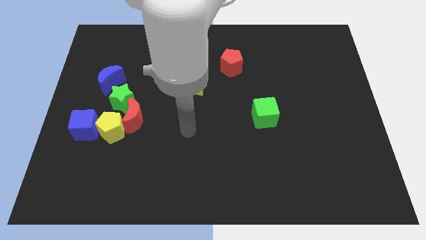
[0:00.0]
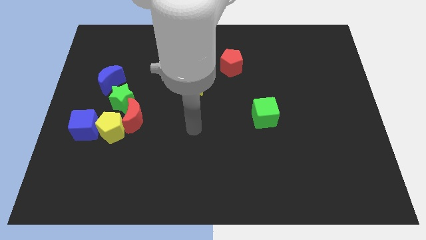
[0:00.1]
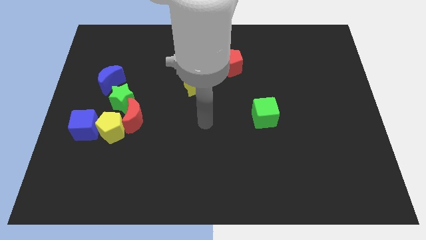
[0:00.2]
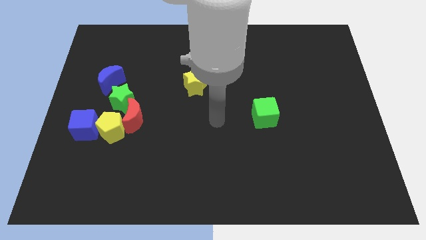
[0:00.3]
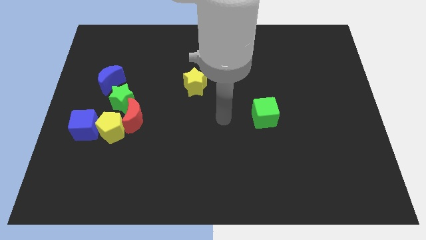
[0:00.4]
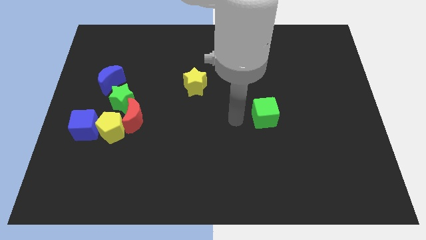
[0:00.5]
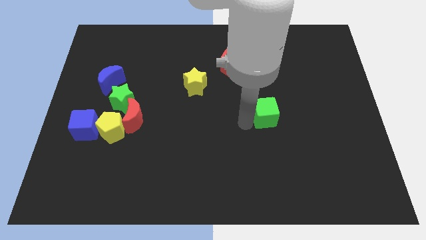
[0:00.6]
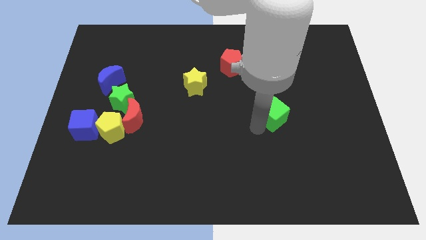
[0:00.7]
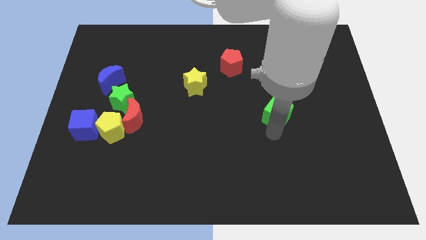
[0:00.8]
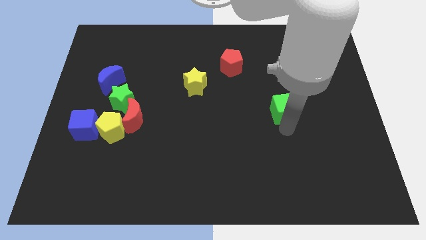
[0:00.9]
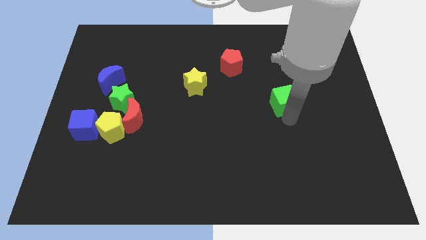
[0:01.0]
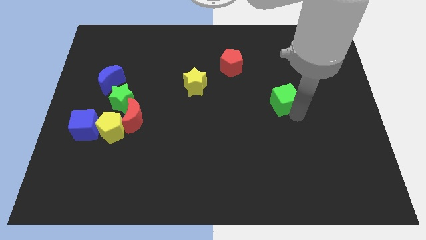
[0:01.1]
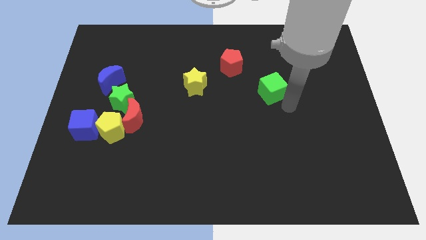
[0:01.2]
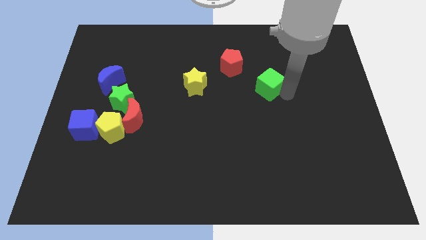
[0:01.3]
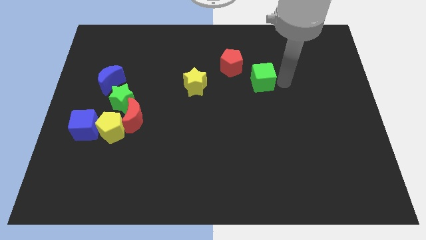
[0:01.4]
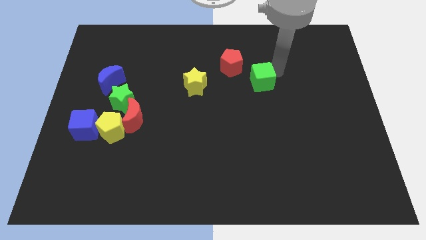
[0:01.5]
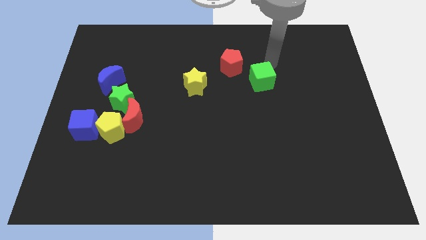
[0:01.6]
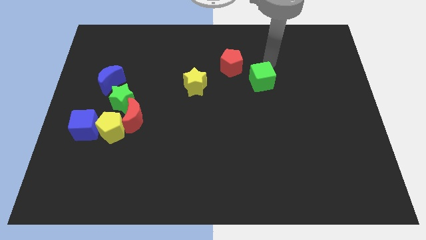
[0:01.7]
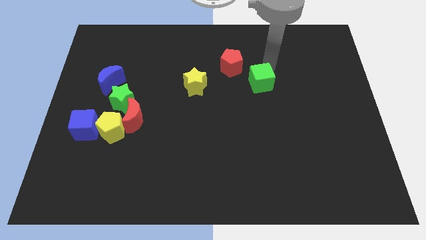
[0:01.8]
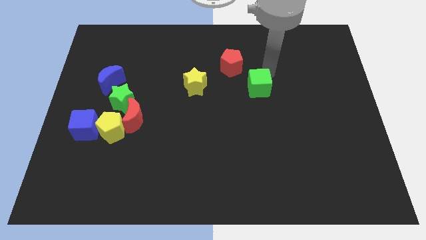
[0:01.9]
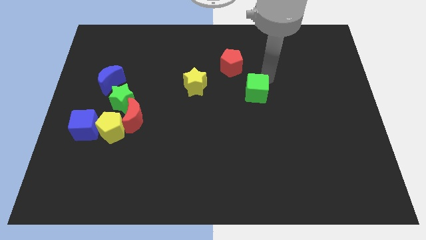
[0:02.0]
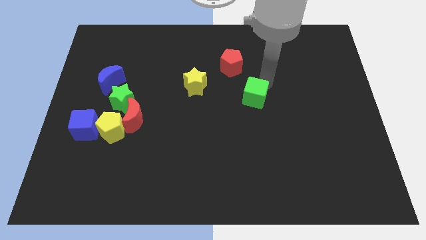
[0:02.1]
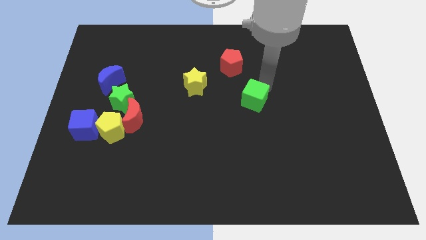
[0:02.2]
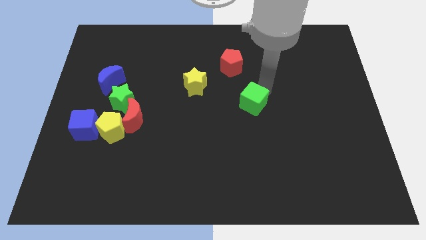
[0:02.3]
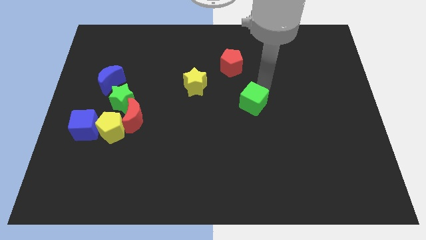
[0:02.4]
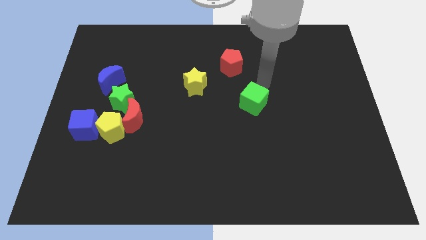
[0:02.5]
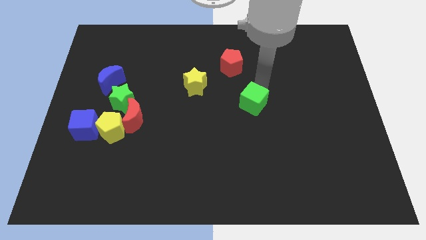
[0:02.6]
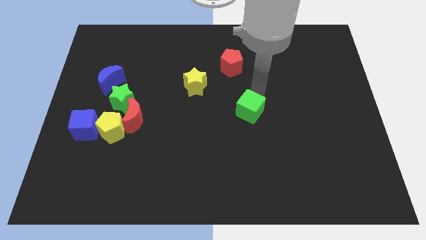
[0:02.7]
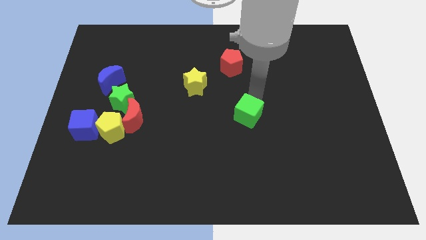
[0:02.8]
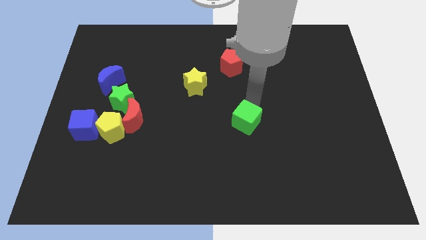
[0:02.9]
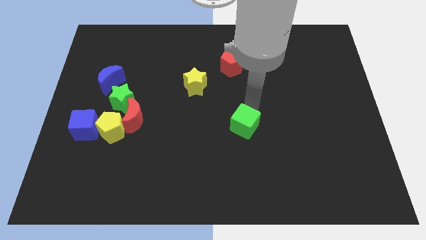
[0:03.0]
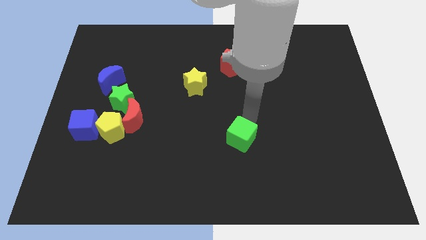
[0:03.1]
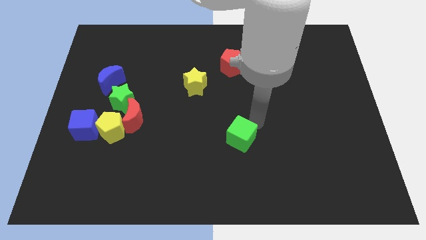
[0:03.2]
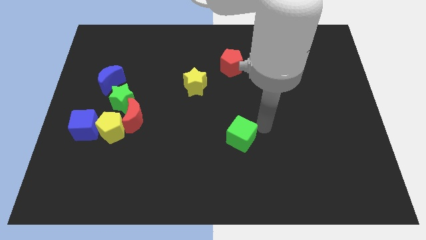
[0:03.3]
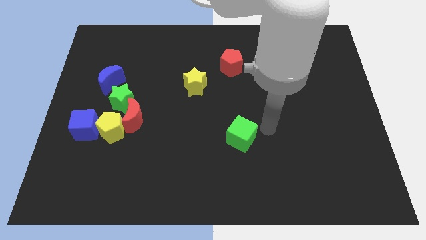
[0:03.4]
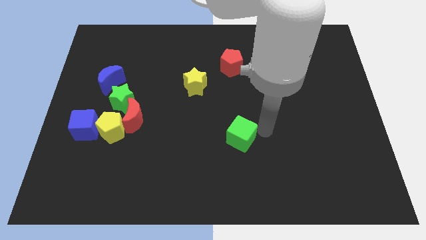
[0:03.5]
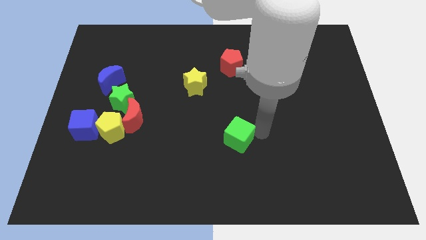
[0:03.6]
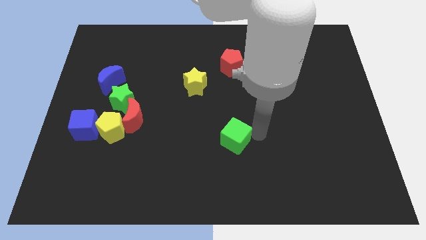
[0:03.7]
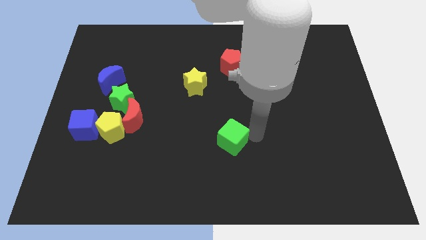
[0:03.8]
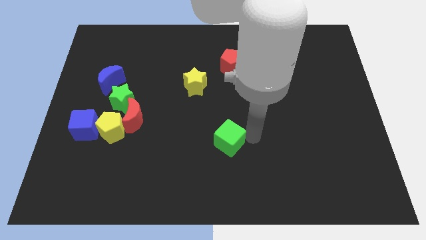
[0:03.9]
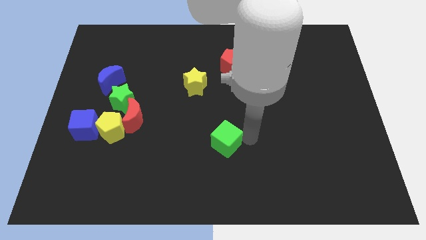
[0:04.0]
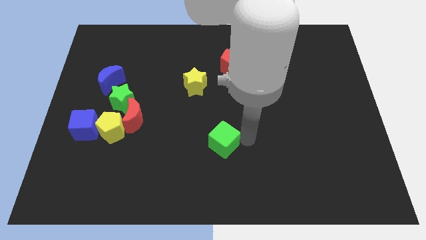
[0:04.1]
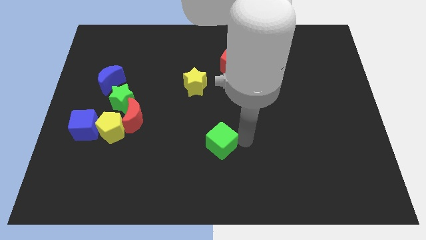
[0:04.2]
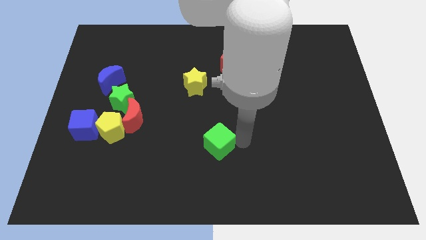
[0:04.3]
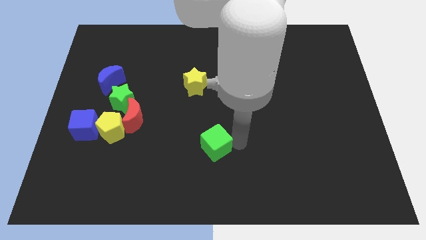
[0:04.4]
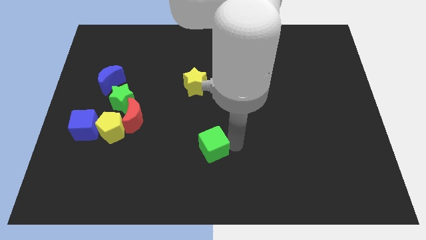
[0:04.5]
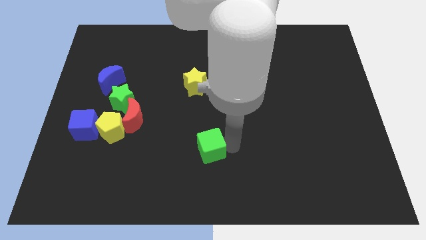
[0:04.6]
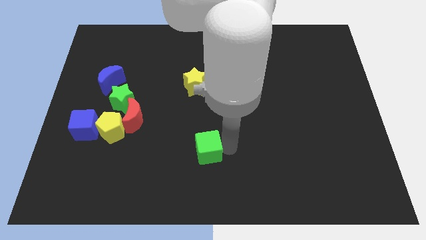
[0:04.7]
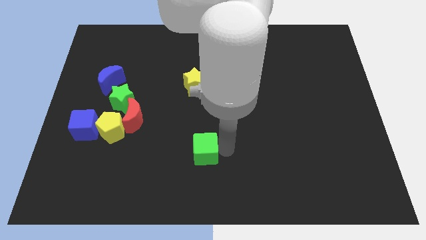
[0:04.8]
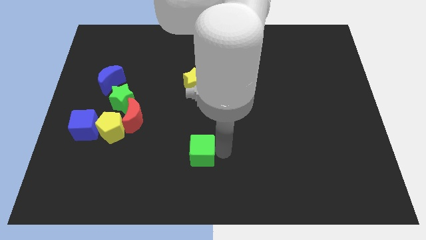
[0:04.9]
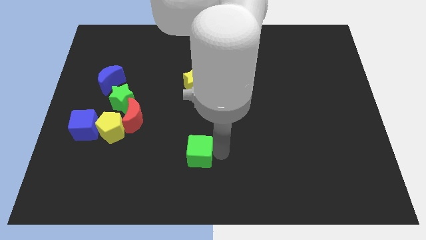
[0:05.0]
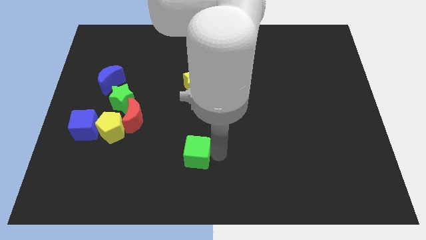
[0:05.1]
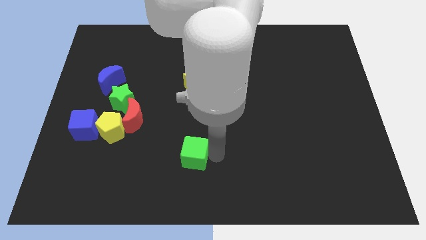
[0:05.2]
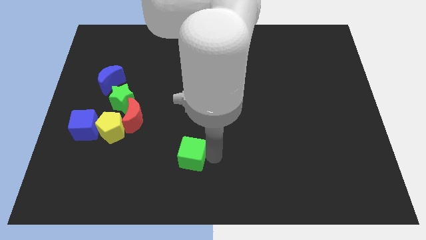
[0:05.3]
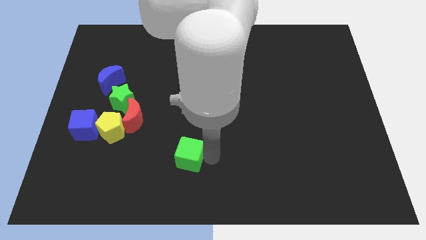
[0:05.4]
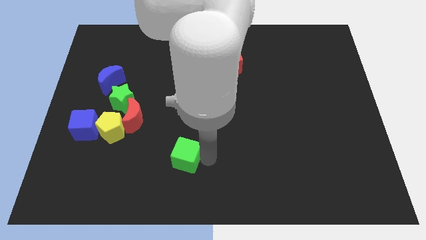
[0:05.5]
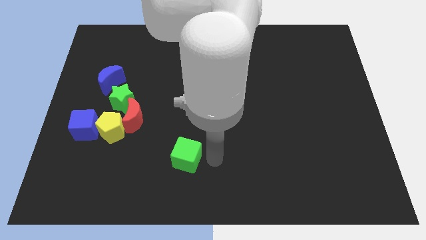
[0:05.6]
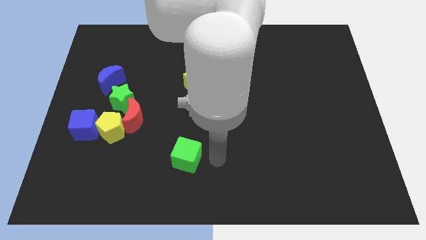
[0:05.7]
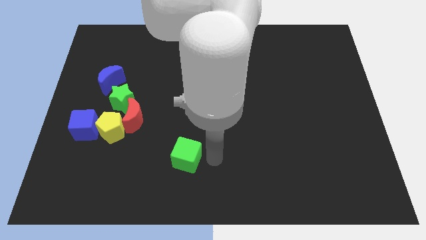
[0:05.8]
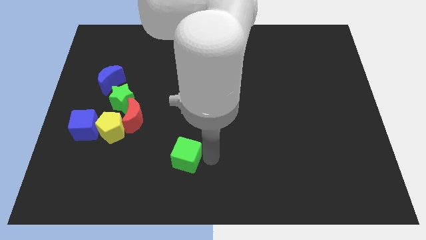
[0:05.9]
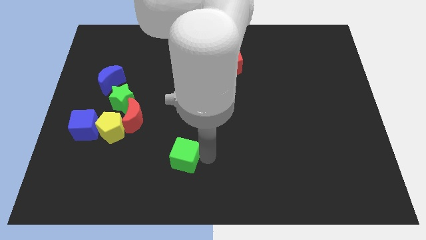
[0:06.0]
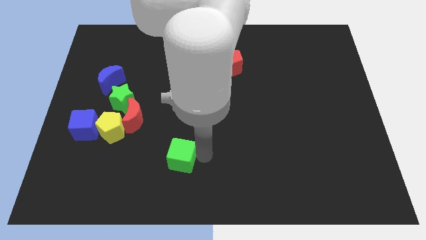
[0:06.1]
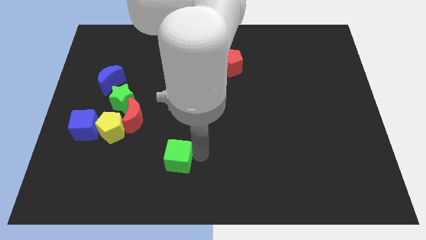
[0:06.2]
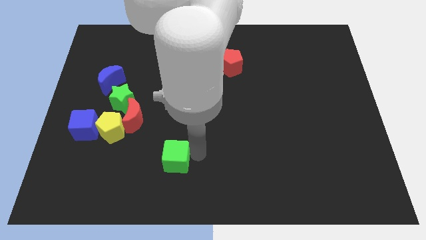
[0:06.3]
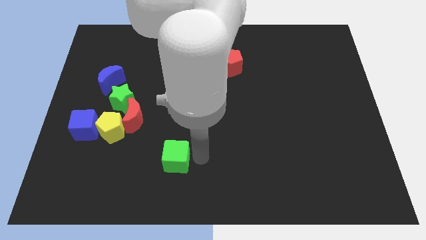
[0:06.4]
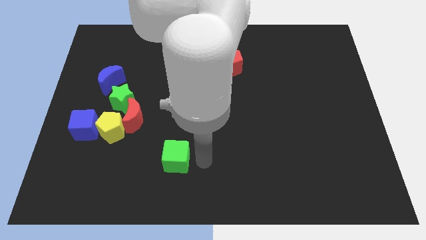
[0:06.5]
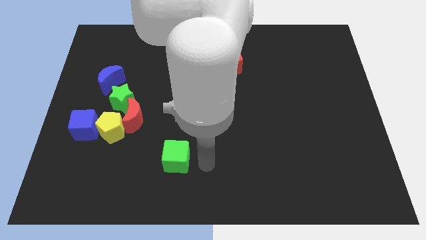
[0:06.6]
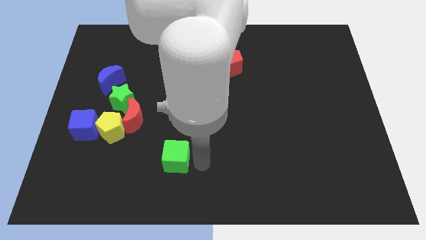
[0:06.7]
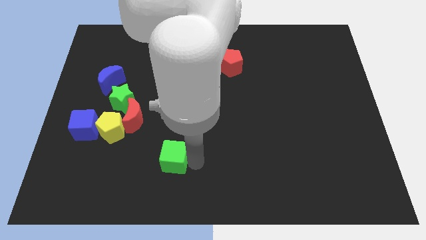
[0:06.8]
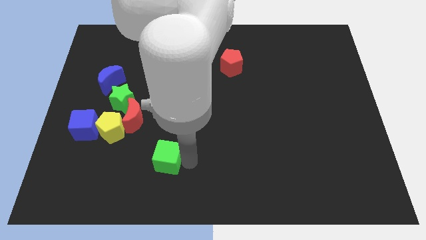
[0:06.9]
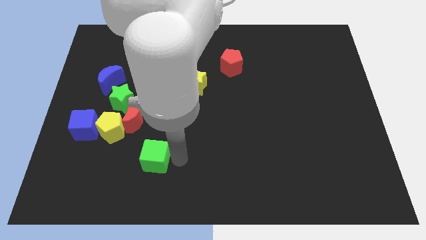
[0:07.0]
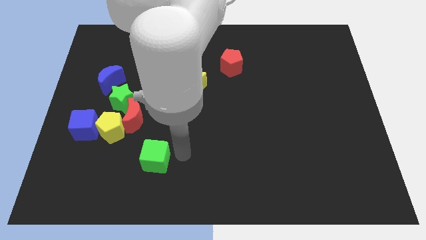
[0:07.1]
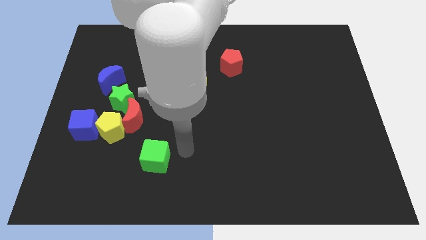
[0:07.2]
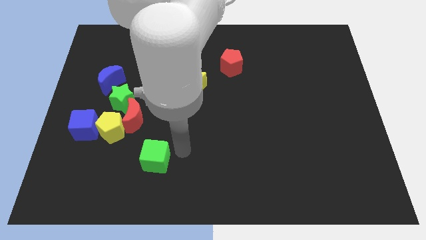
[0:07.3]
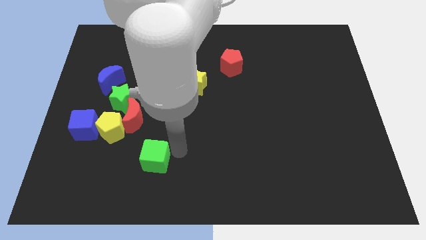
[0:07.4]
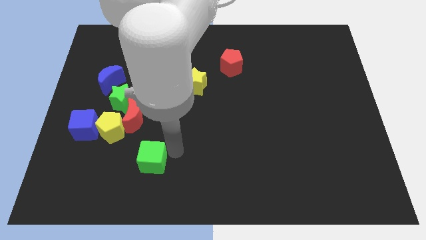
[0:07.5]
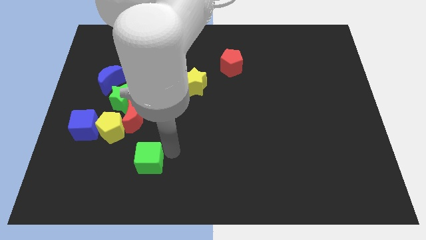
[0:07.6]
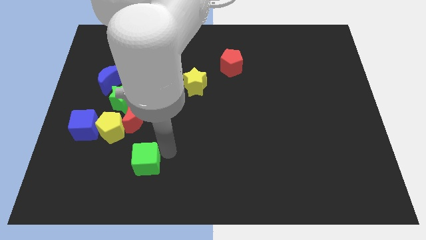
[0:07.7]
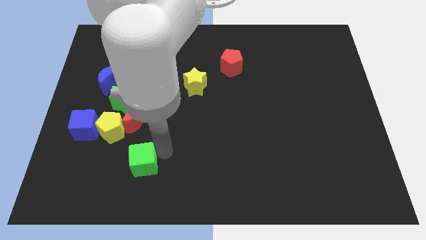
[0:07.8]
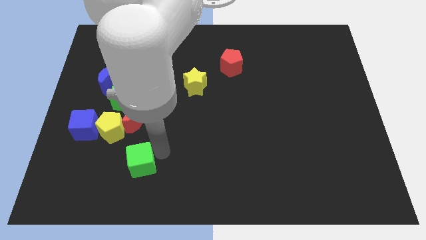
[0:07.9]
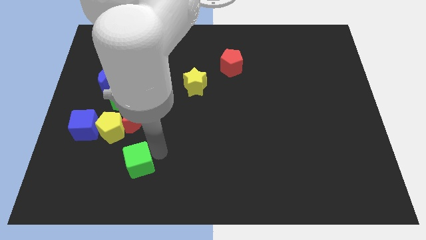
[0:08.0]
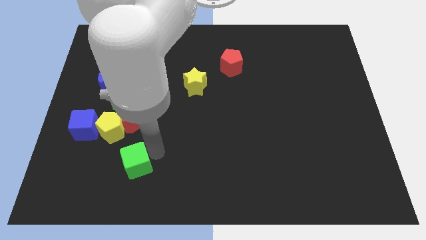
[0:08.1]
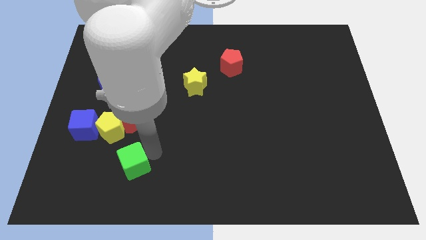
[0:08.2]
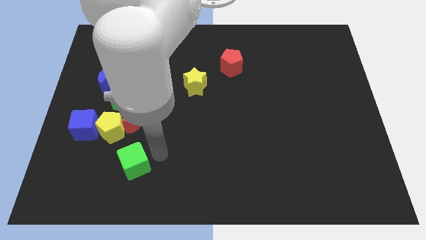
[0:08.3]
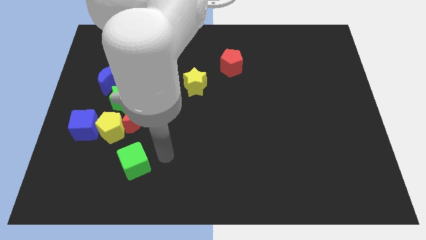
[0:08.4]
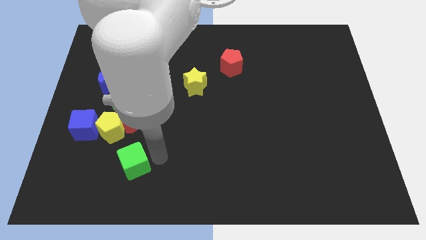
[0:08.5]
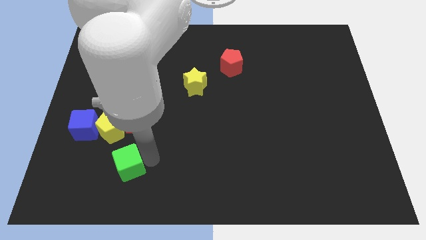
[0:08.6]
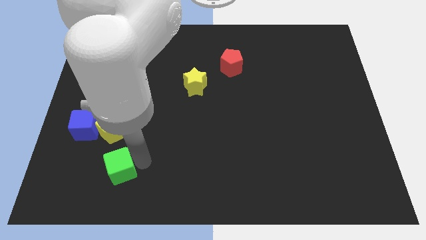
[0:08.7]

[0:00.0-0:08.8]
move the green cube to the bottom of the yellow pentagon
